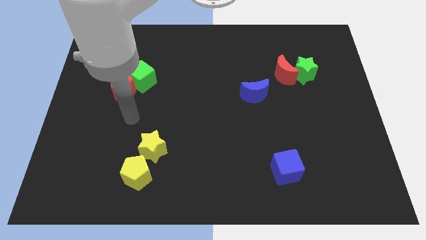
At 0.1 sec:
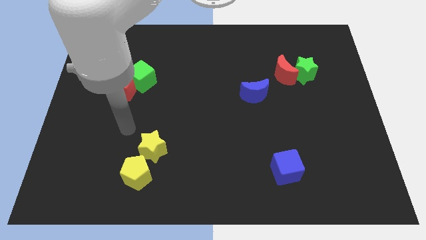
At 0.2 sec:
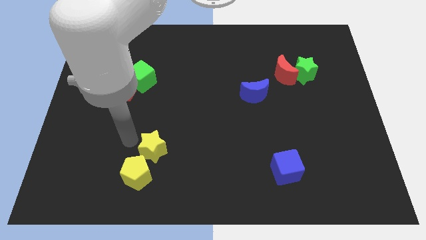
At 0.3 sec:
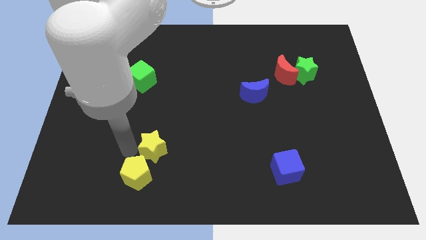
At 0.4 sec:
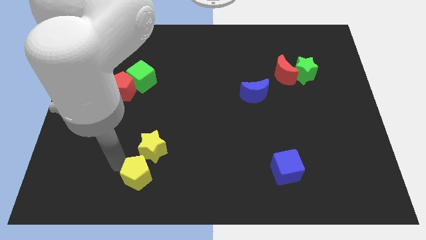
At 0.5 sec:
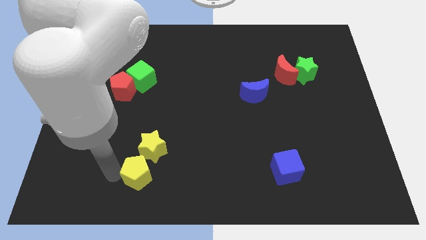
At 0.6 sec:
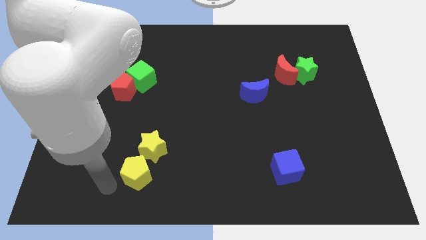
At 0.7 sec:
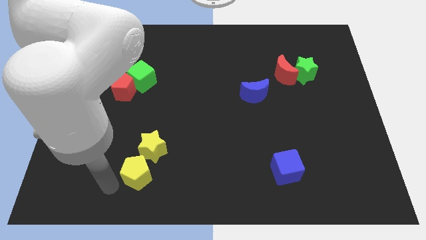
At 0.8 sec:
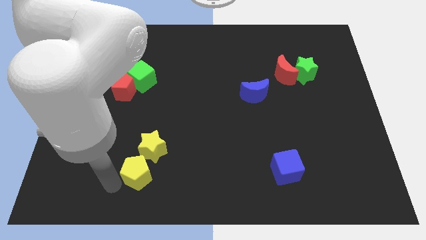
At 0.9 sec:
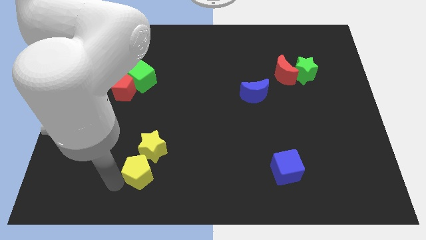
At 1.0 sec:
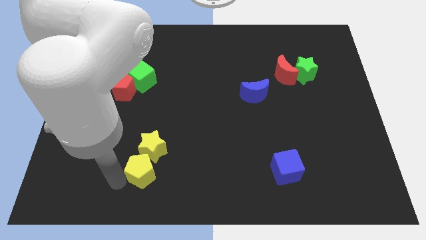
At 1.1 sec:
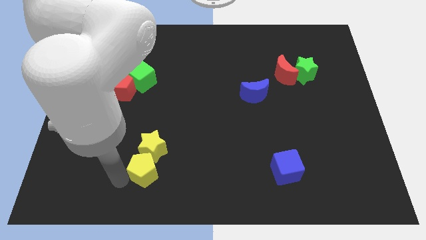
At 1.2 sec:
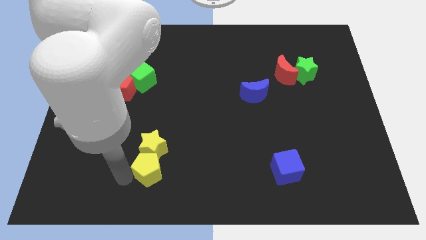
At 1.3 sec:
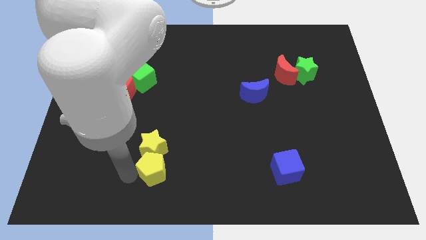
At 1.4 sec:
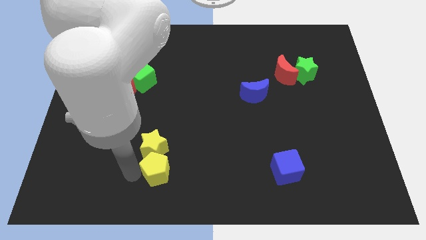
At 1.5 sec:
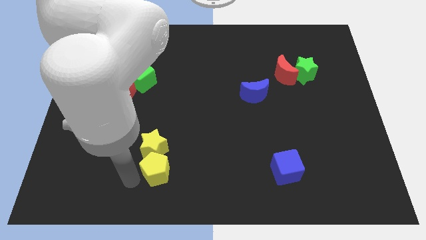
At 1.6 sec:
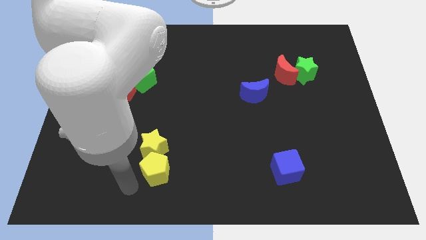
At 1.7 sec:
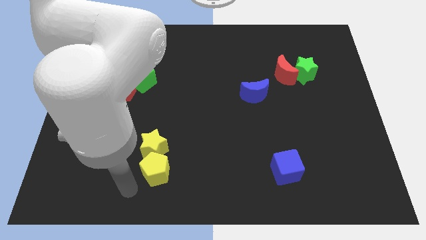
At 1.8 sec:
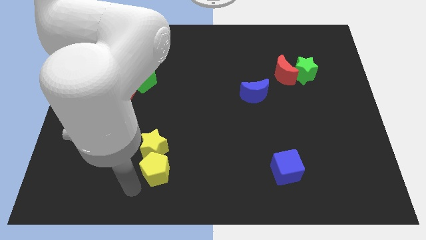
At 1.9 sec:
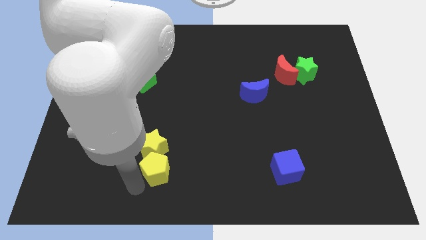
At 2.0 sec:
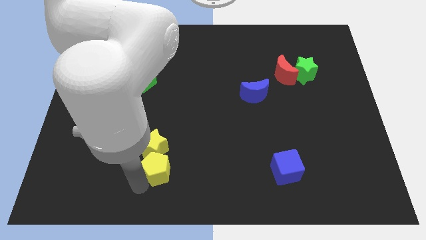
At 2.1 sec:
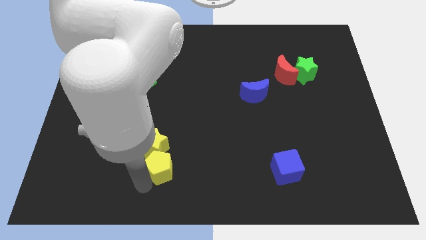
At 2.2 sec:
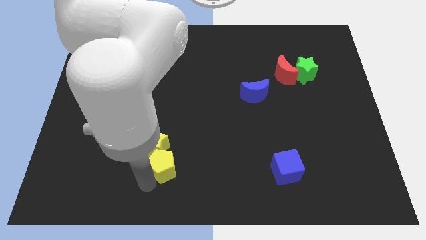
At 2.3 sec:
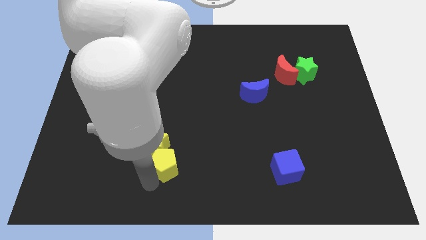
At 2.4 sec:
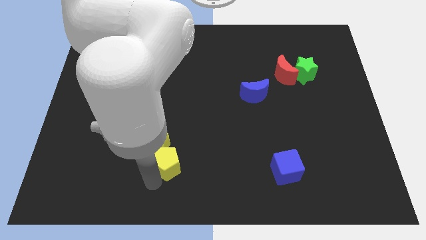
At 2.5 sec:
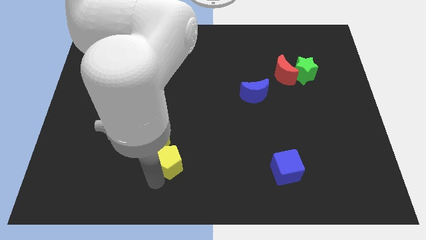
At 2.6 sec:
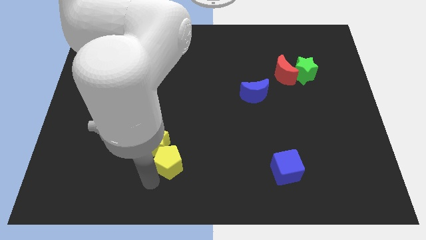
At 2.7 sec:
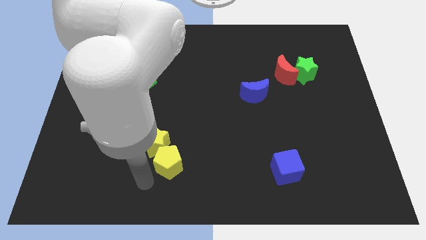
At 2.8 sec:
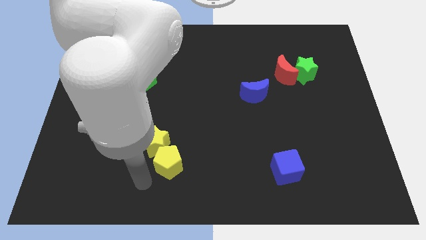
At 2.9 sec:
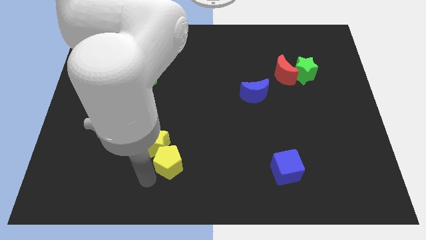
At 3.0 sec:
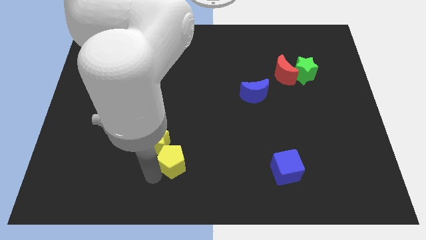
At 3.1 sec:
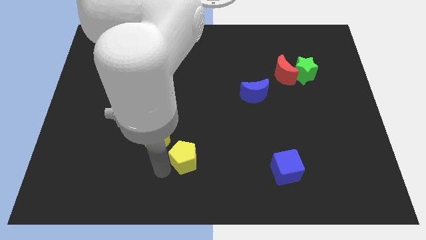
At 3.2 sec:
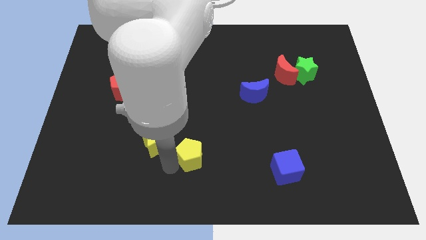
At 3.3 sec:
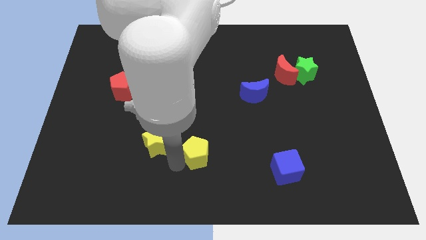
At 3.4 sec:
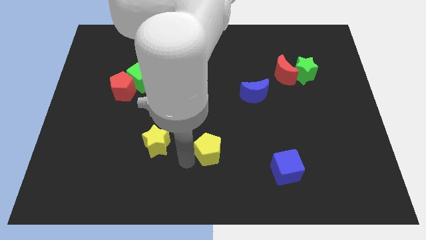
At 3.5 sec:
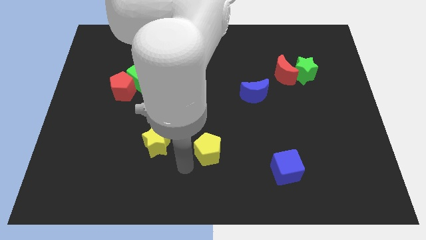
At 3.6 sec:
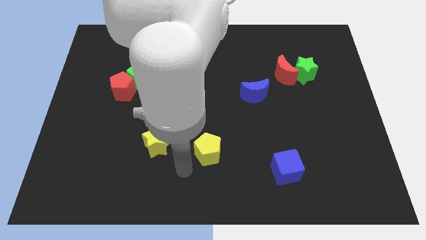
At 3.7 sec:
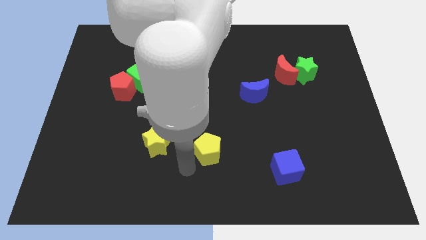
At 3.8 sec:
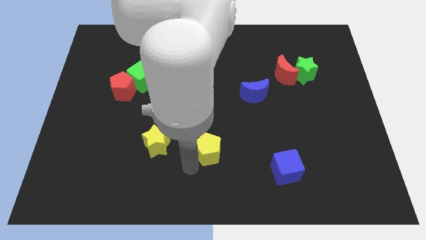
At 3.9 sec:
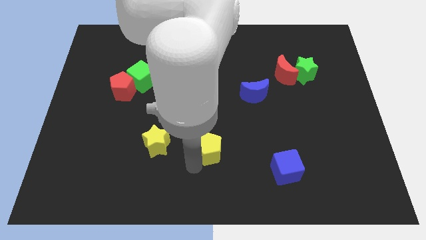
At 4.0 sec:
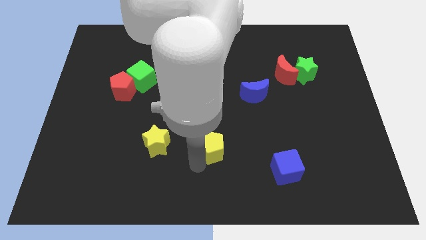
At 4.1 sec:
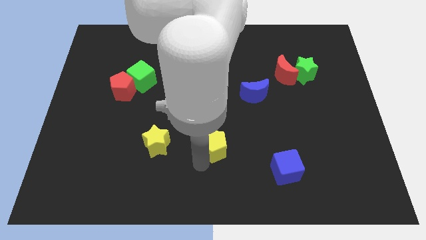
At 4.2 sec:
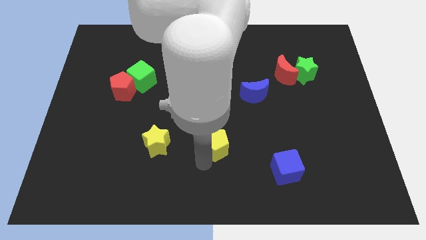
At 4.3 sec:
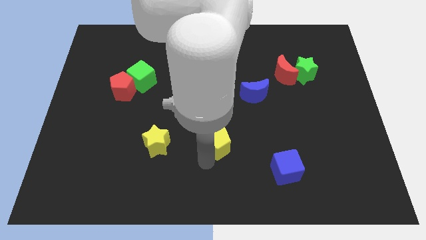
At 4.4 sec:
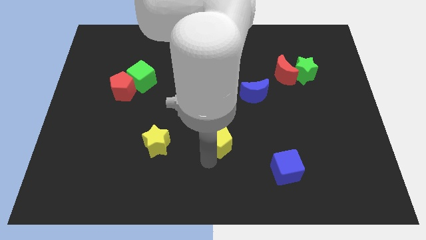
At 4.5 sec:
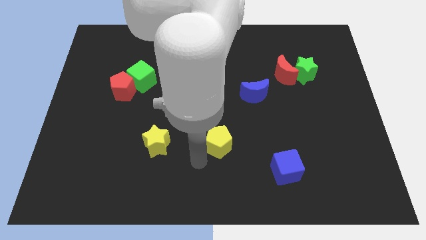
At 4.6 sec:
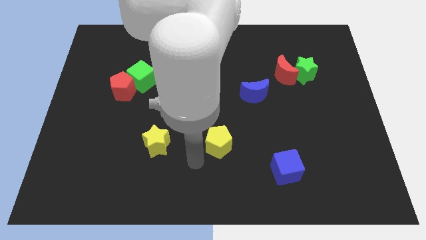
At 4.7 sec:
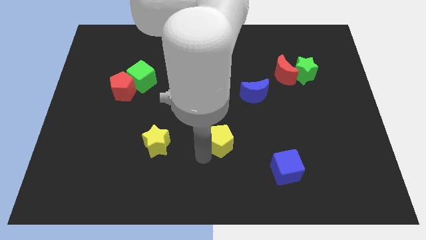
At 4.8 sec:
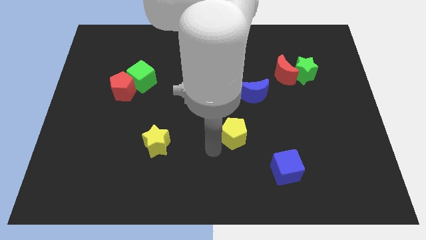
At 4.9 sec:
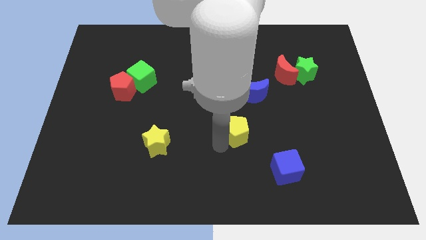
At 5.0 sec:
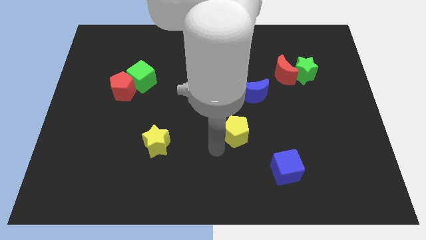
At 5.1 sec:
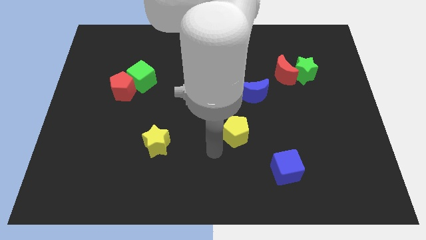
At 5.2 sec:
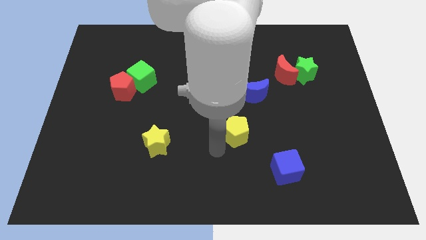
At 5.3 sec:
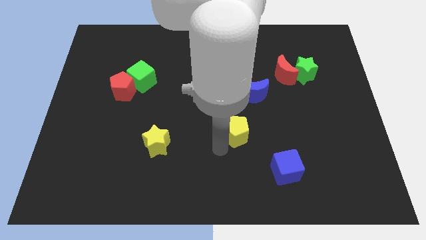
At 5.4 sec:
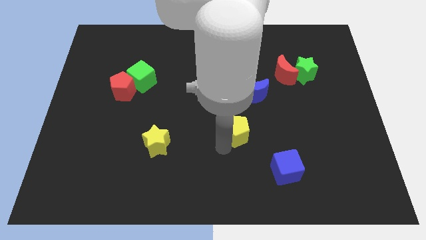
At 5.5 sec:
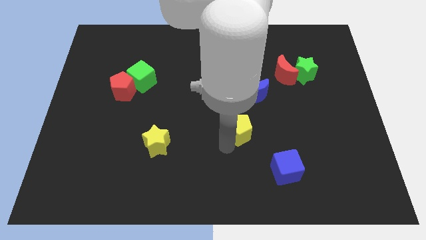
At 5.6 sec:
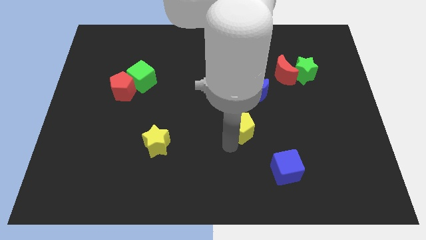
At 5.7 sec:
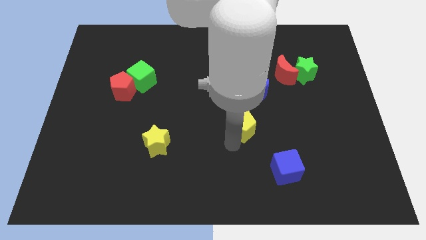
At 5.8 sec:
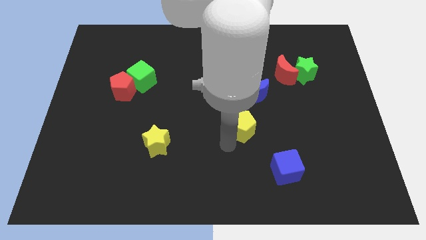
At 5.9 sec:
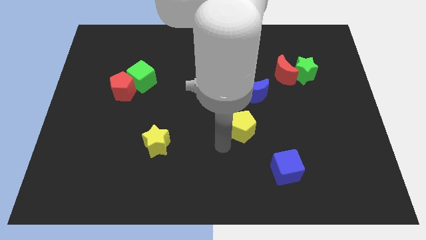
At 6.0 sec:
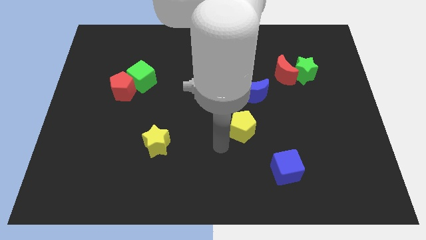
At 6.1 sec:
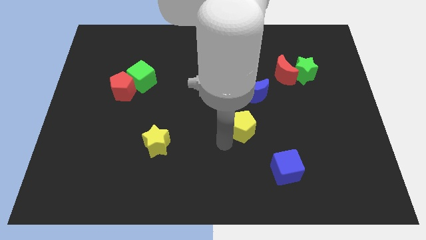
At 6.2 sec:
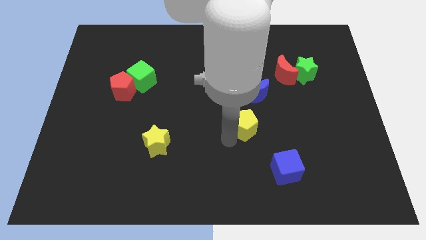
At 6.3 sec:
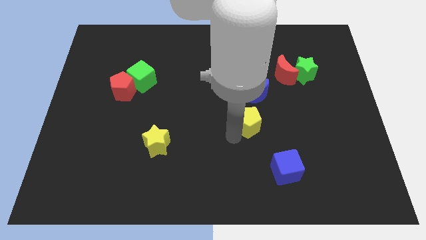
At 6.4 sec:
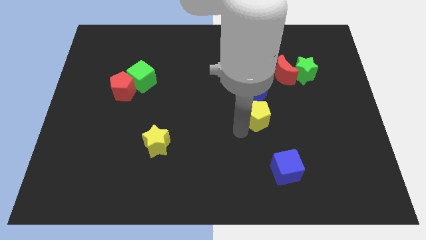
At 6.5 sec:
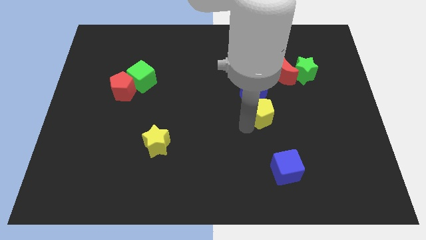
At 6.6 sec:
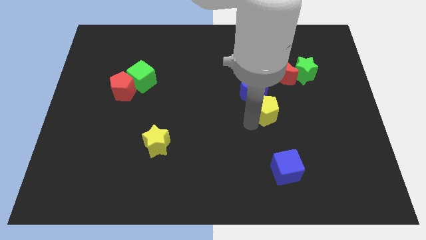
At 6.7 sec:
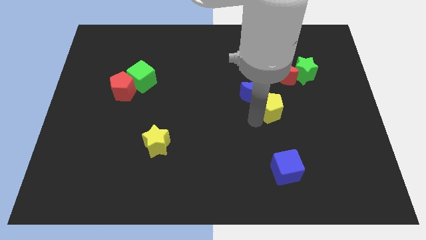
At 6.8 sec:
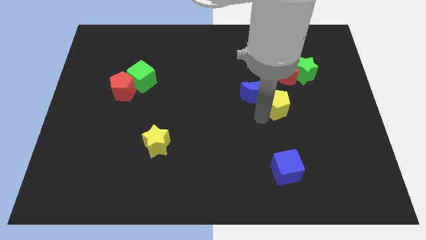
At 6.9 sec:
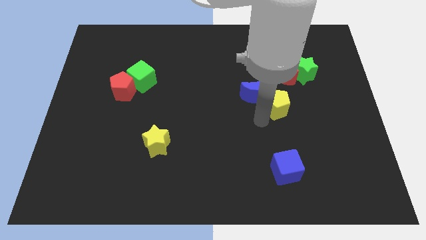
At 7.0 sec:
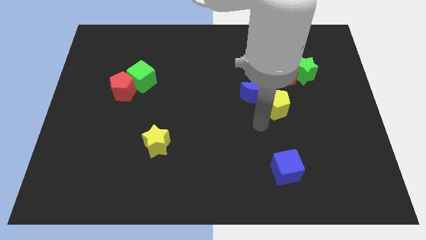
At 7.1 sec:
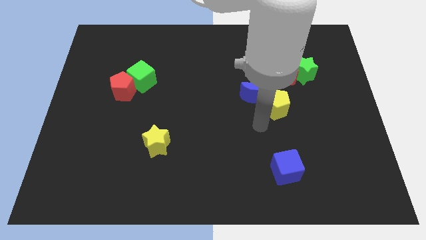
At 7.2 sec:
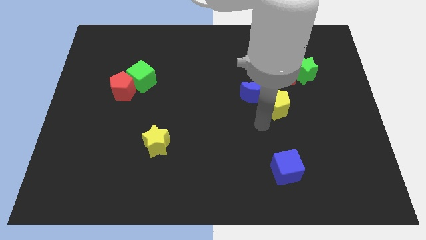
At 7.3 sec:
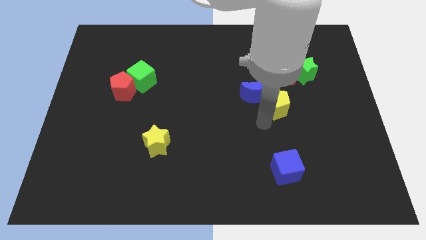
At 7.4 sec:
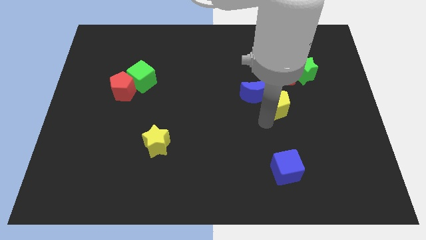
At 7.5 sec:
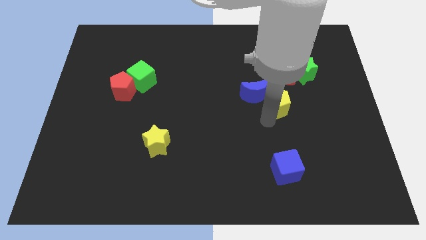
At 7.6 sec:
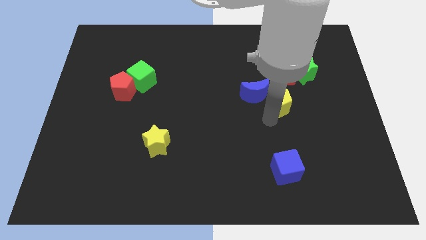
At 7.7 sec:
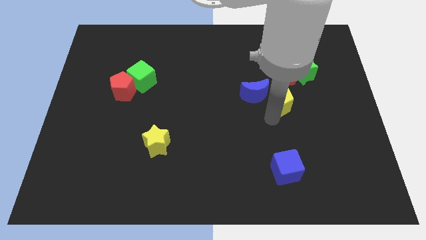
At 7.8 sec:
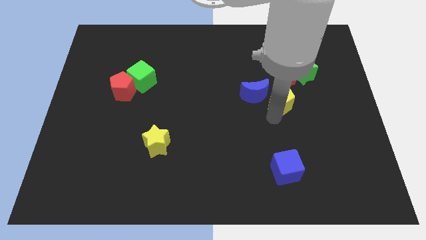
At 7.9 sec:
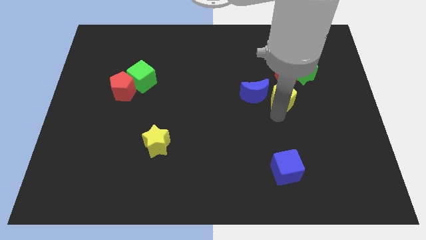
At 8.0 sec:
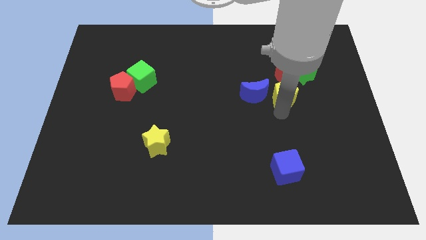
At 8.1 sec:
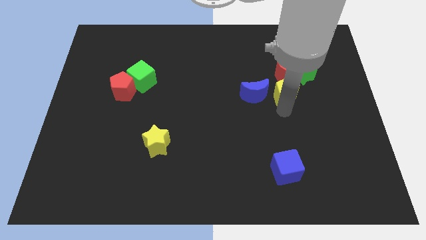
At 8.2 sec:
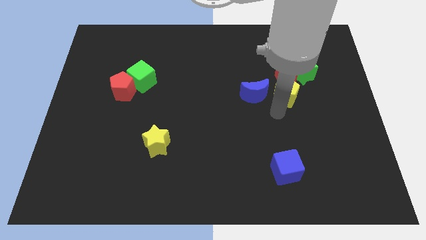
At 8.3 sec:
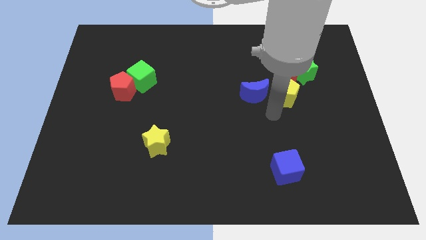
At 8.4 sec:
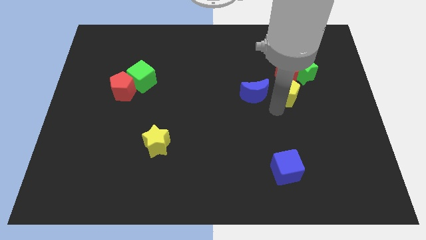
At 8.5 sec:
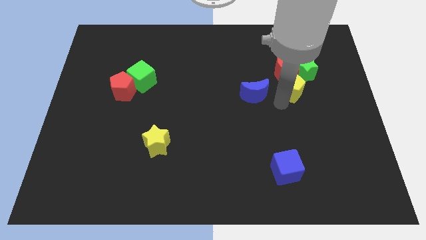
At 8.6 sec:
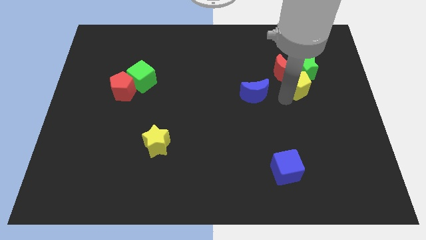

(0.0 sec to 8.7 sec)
slide the yellow pentagon to the green star

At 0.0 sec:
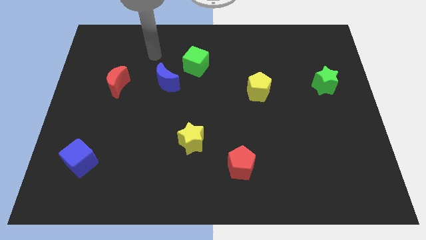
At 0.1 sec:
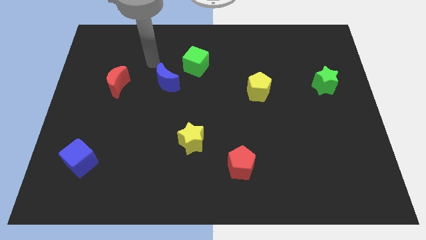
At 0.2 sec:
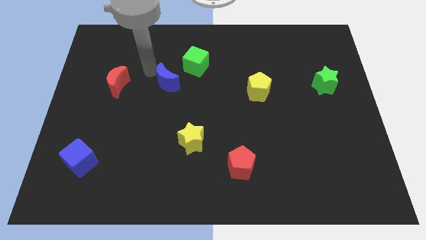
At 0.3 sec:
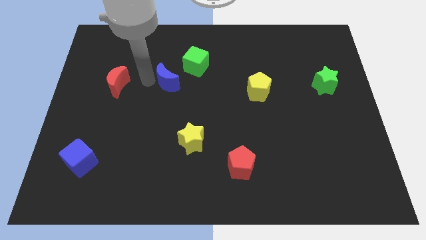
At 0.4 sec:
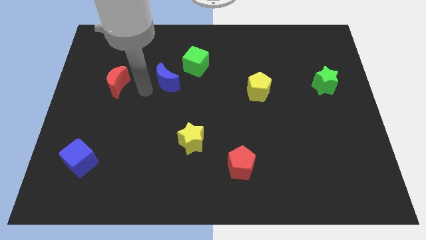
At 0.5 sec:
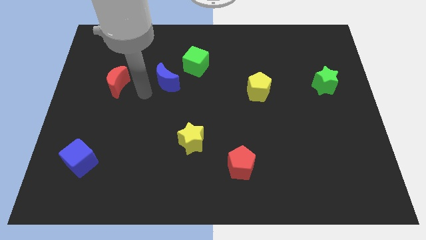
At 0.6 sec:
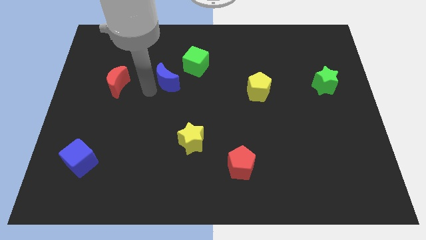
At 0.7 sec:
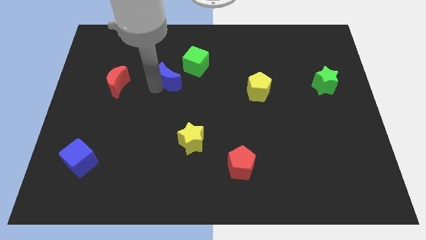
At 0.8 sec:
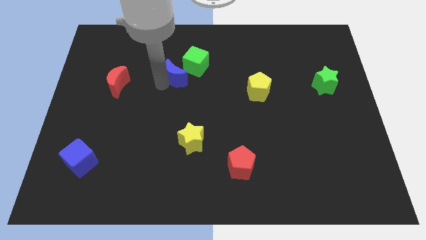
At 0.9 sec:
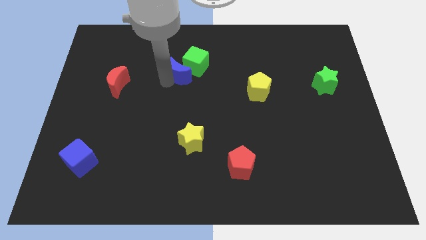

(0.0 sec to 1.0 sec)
push the blue moon close to the green cube
